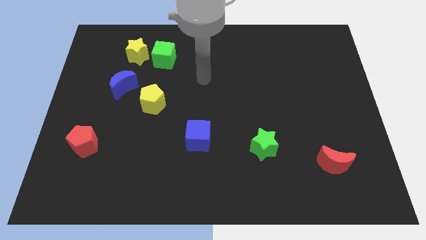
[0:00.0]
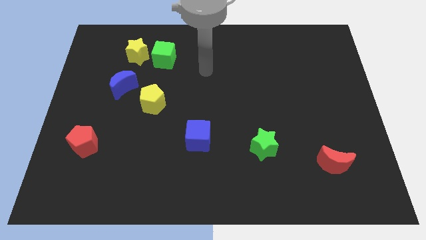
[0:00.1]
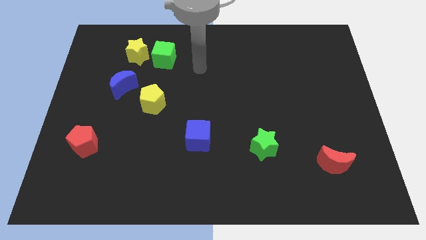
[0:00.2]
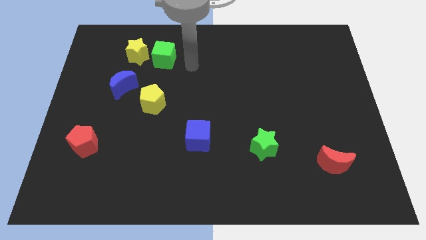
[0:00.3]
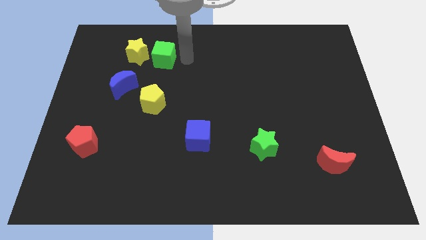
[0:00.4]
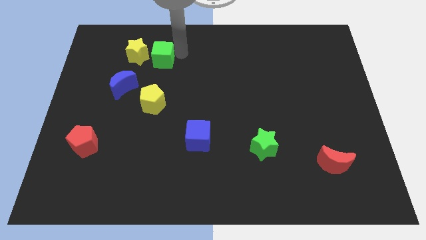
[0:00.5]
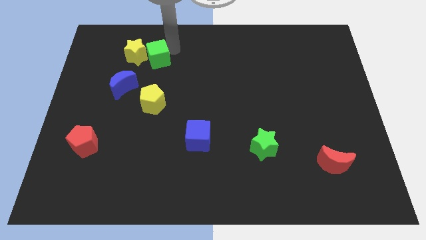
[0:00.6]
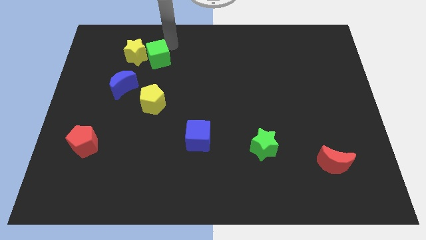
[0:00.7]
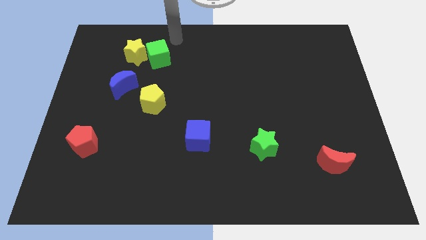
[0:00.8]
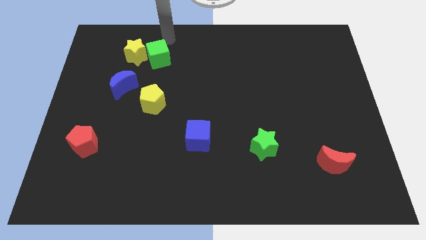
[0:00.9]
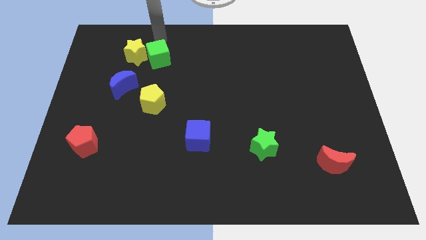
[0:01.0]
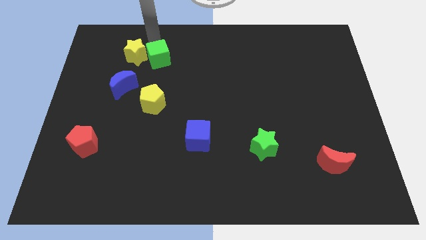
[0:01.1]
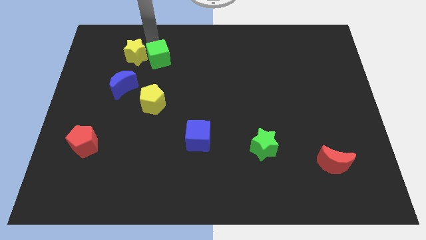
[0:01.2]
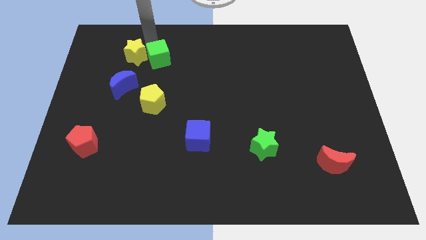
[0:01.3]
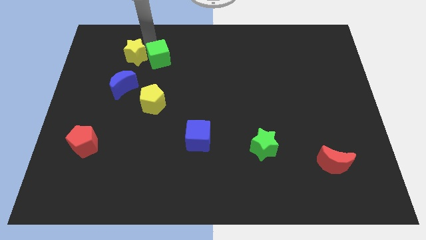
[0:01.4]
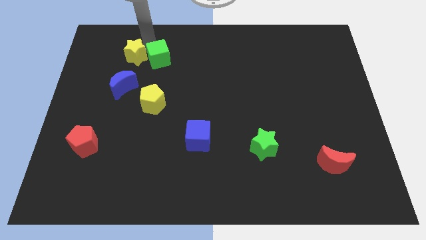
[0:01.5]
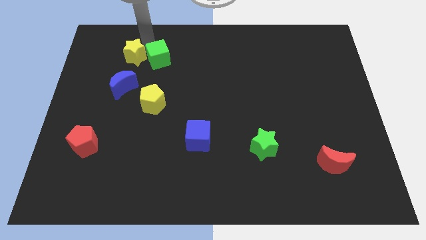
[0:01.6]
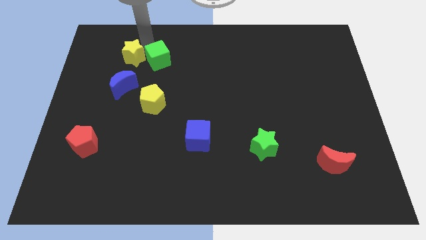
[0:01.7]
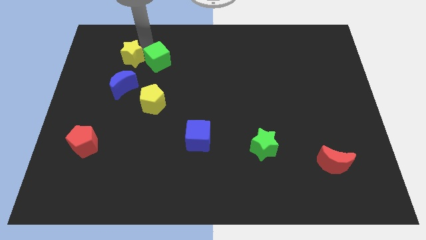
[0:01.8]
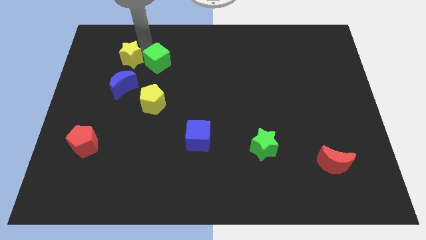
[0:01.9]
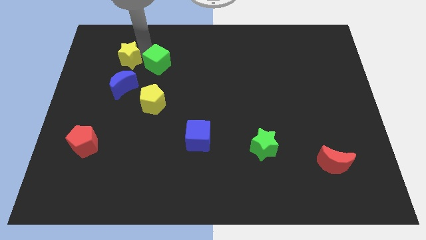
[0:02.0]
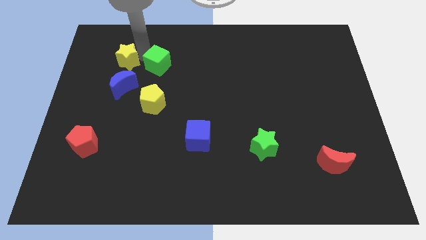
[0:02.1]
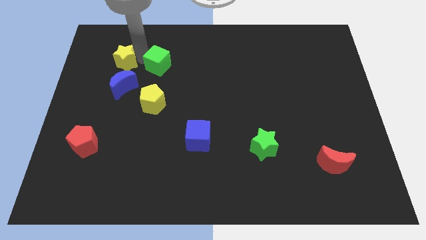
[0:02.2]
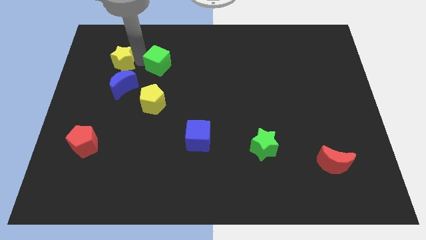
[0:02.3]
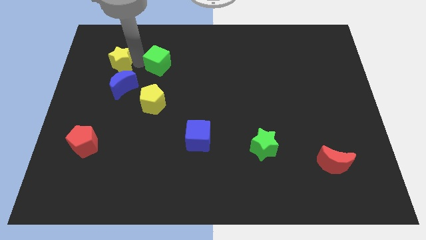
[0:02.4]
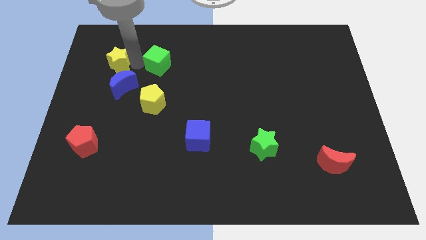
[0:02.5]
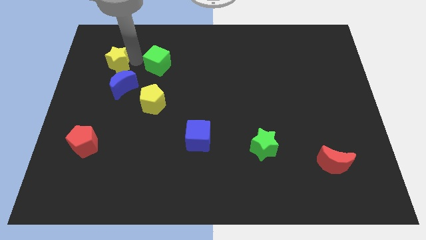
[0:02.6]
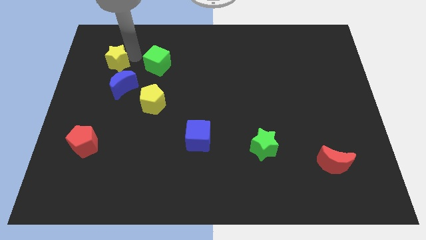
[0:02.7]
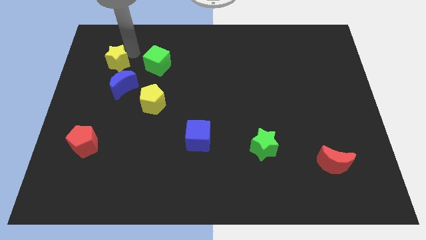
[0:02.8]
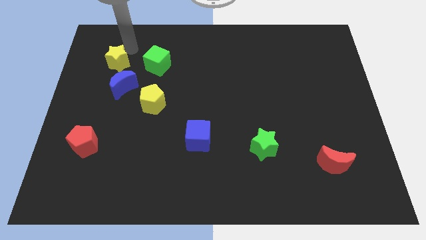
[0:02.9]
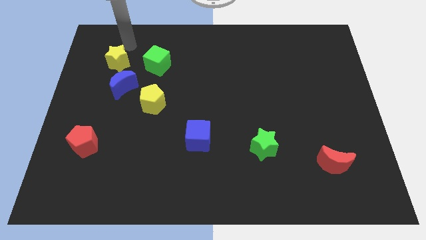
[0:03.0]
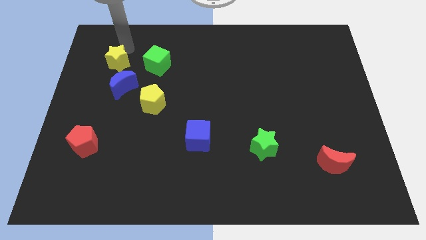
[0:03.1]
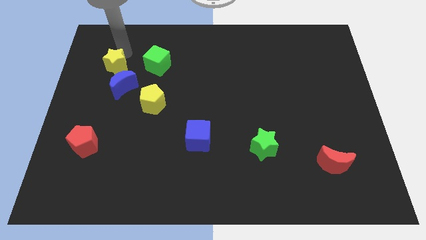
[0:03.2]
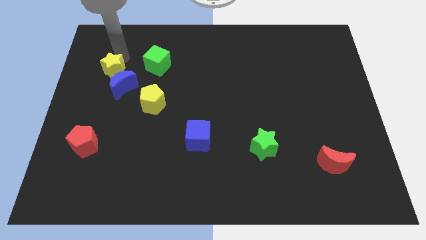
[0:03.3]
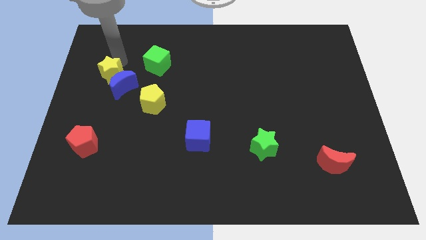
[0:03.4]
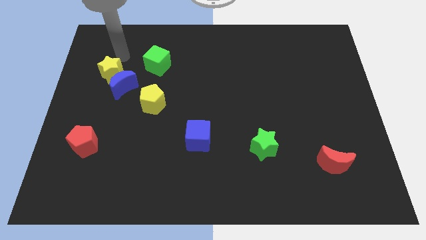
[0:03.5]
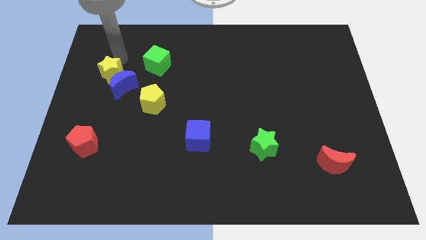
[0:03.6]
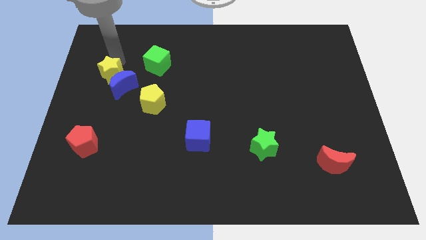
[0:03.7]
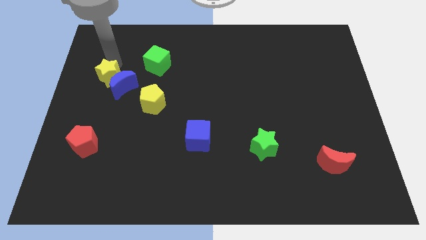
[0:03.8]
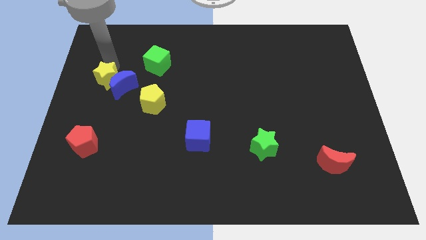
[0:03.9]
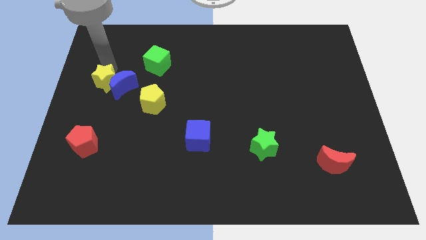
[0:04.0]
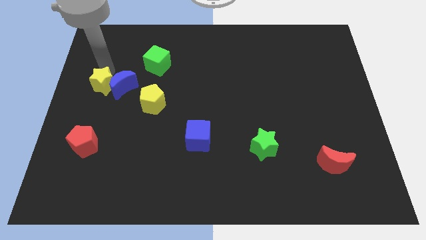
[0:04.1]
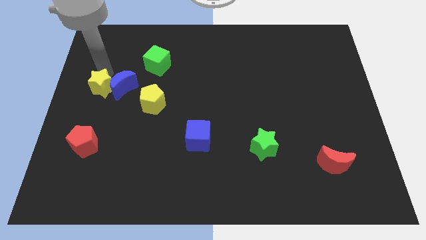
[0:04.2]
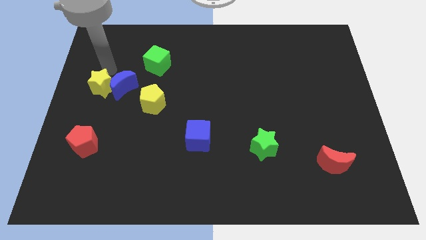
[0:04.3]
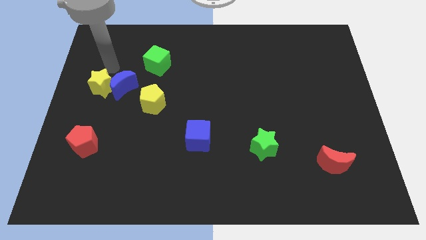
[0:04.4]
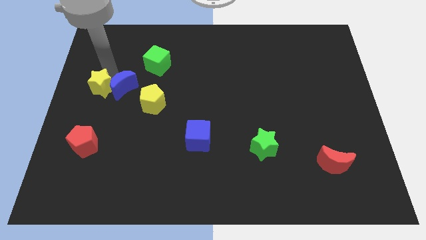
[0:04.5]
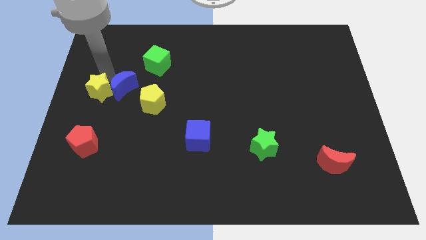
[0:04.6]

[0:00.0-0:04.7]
move the yellow star to the top of the red pentagon

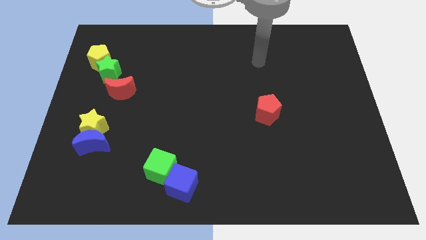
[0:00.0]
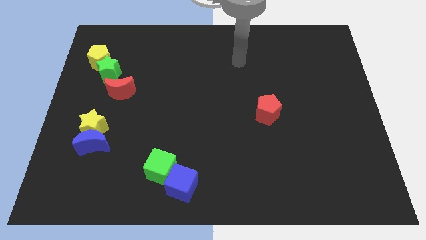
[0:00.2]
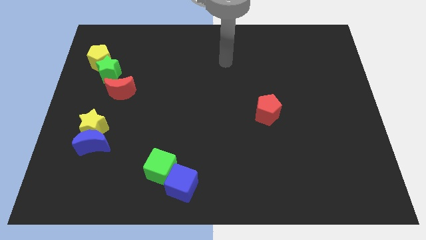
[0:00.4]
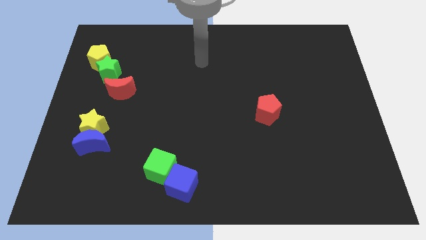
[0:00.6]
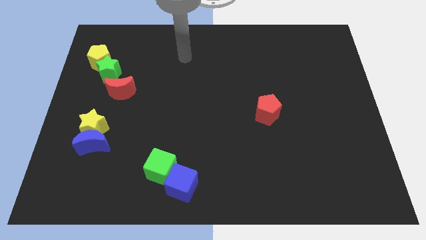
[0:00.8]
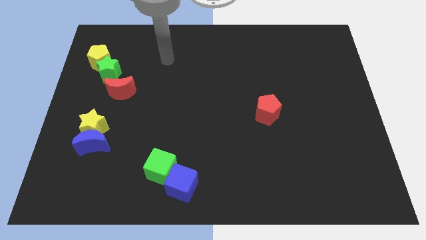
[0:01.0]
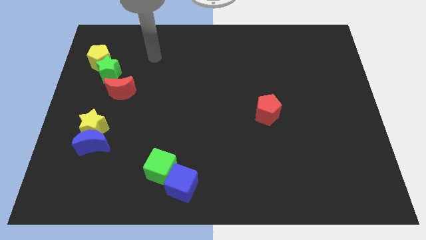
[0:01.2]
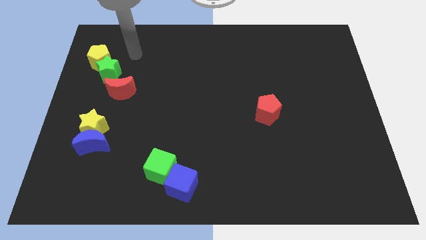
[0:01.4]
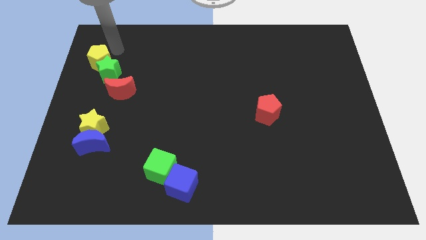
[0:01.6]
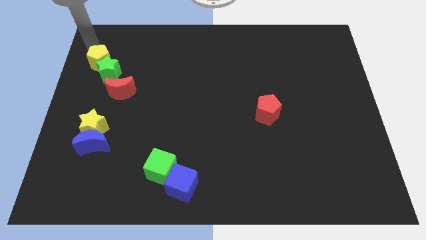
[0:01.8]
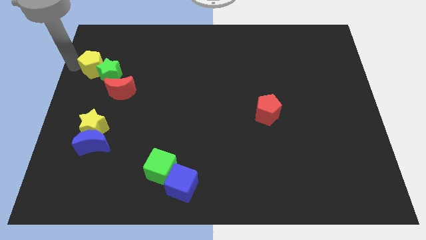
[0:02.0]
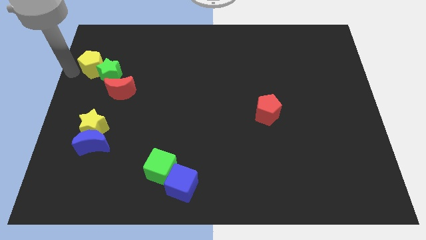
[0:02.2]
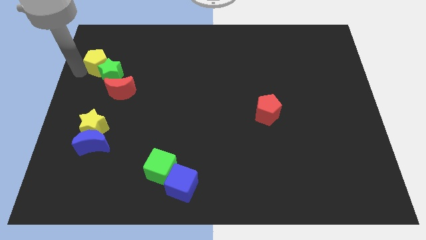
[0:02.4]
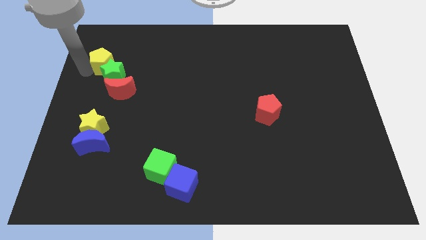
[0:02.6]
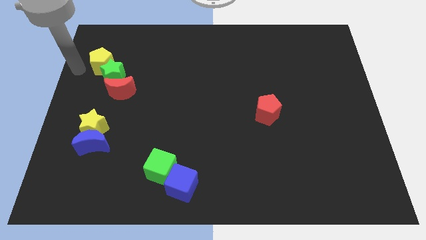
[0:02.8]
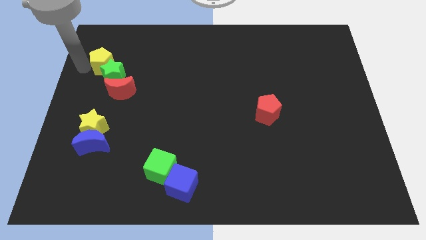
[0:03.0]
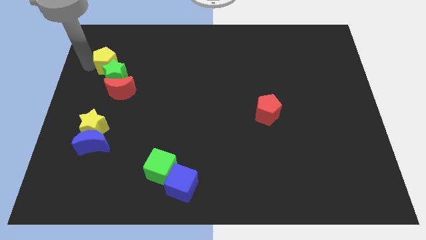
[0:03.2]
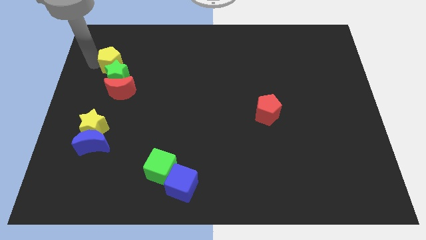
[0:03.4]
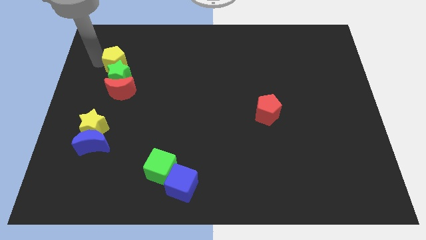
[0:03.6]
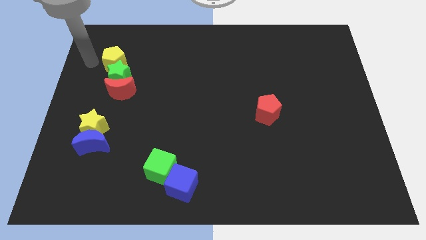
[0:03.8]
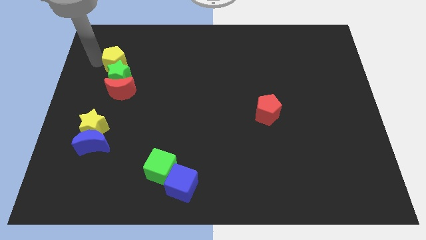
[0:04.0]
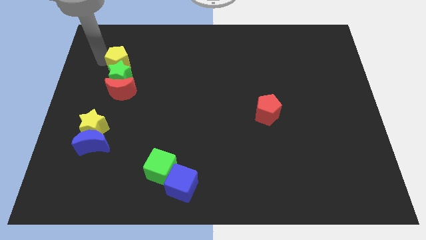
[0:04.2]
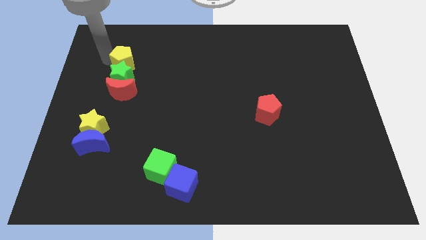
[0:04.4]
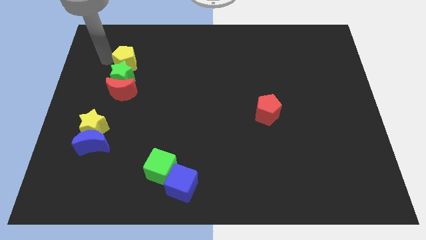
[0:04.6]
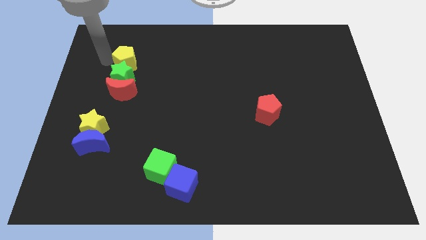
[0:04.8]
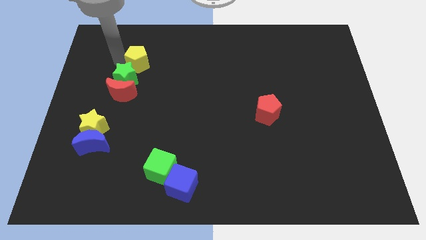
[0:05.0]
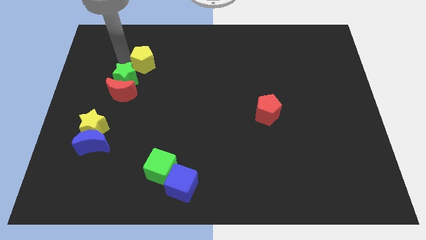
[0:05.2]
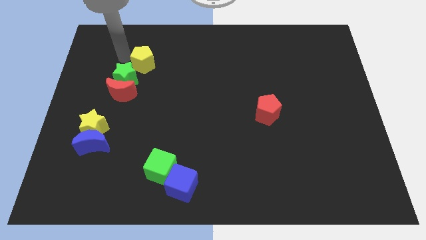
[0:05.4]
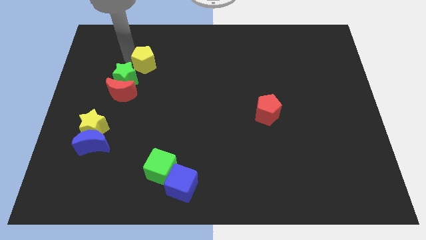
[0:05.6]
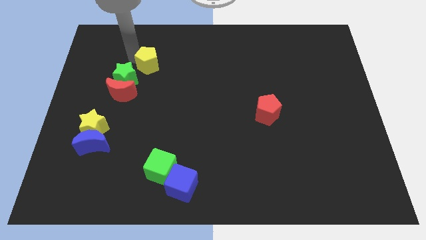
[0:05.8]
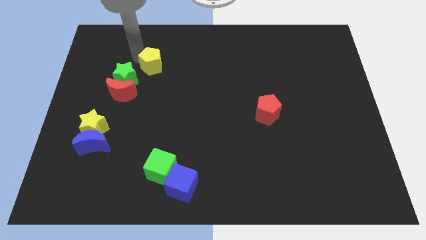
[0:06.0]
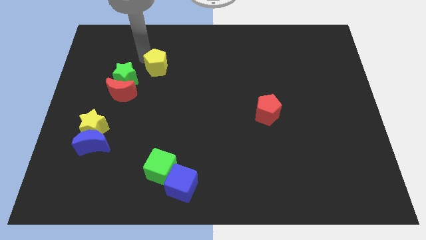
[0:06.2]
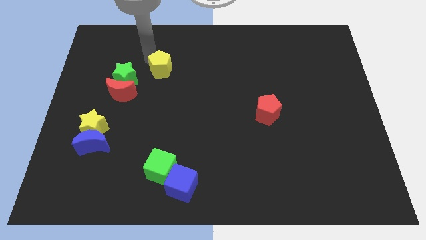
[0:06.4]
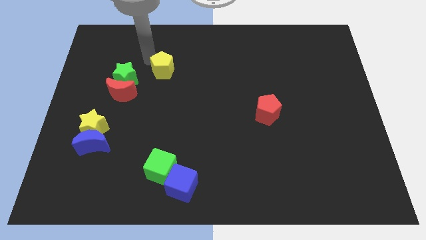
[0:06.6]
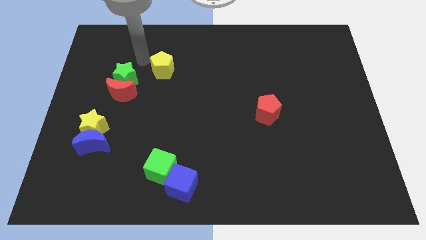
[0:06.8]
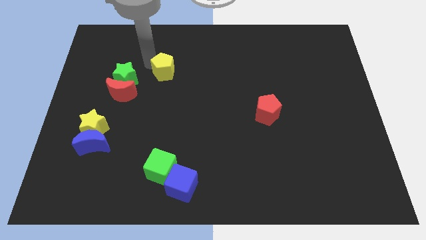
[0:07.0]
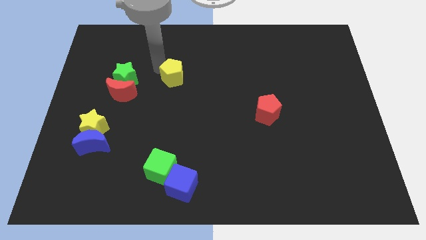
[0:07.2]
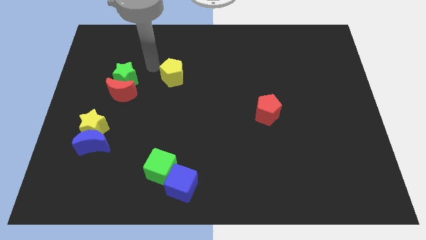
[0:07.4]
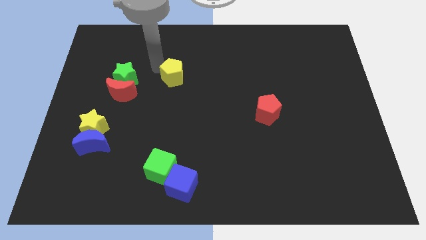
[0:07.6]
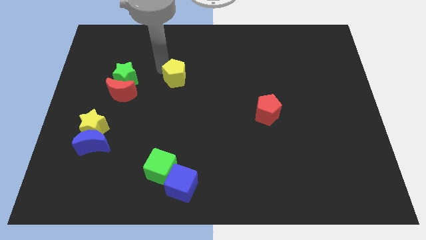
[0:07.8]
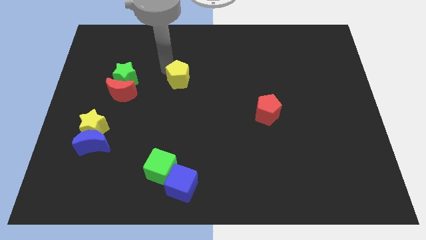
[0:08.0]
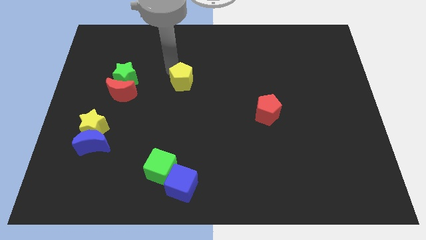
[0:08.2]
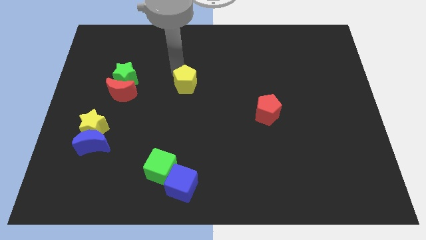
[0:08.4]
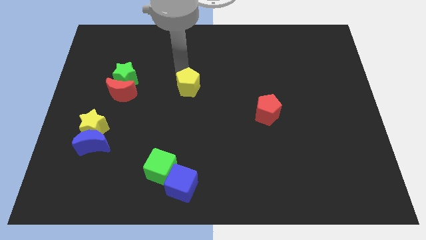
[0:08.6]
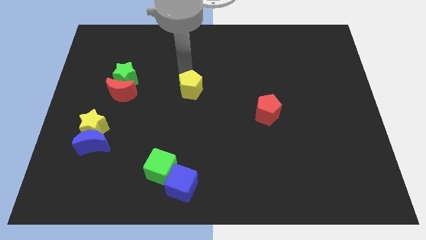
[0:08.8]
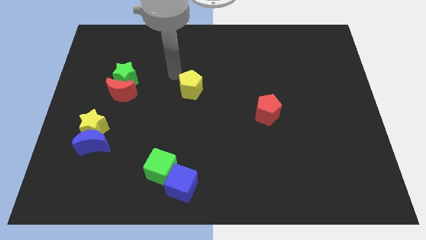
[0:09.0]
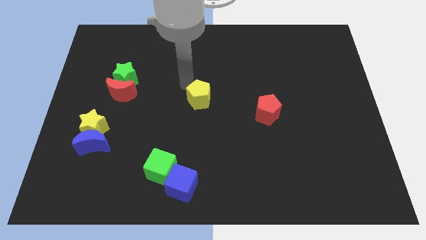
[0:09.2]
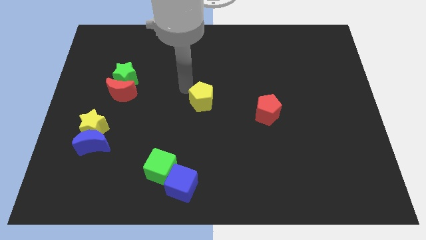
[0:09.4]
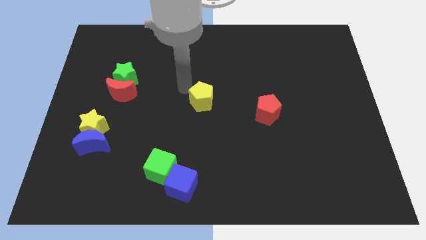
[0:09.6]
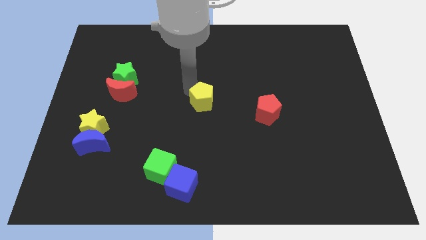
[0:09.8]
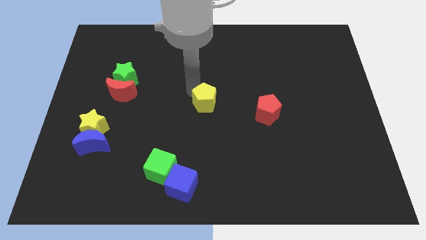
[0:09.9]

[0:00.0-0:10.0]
move the yellow pentagon to the left of the red pentagon
